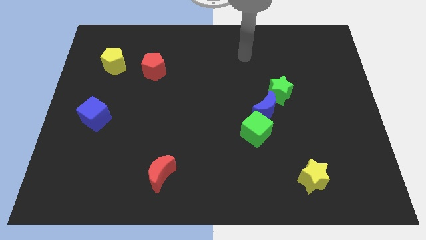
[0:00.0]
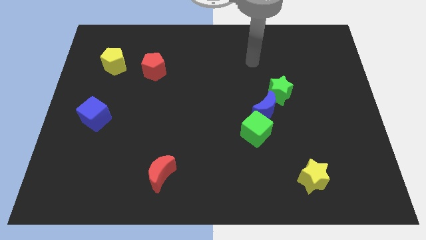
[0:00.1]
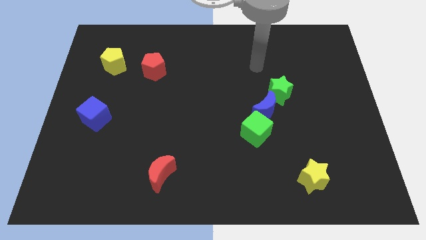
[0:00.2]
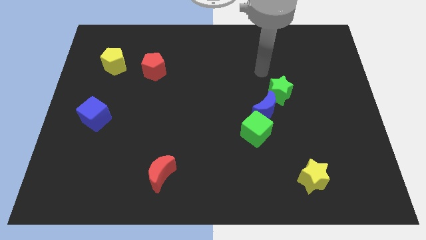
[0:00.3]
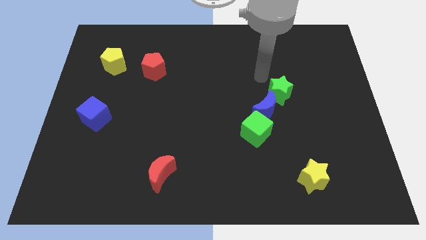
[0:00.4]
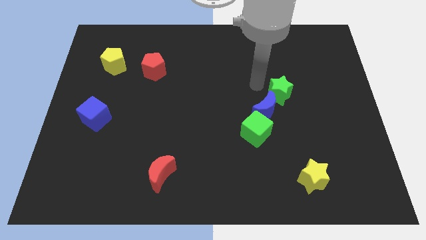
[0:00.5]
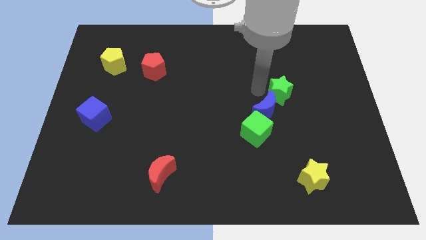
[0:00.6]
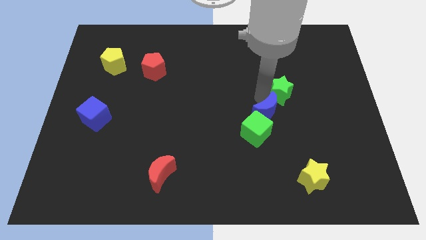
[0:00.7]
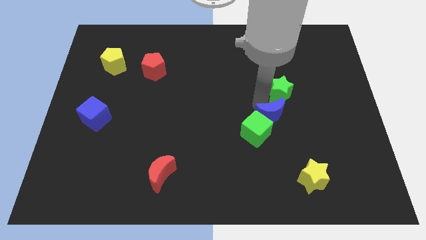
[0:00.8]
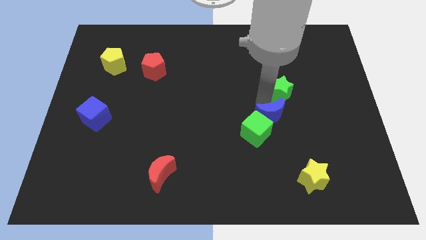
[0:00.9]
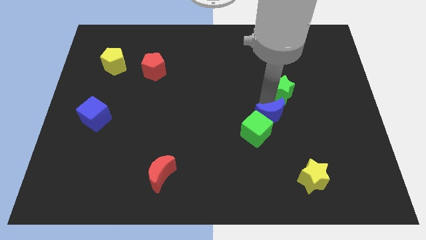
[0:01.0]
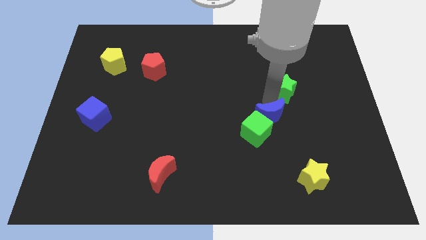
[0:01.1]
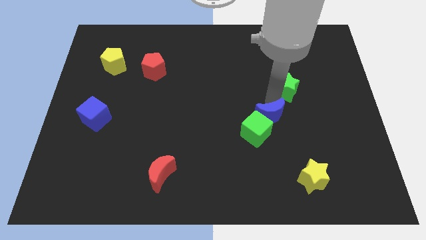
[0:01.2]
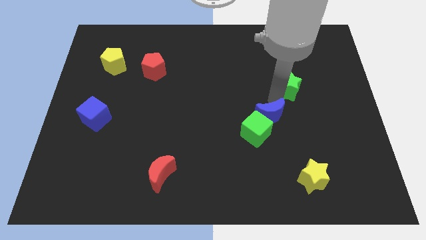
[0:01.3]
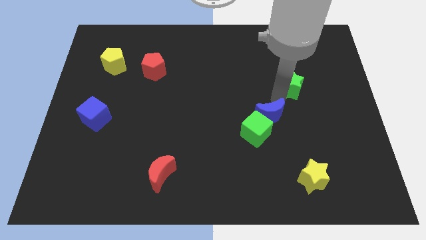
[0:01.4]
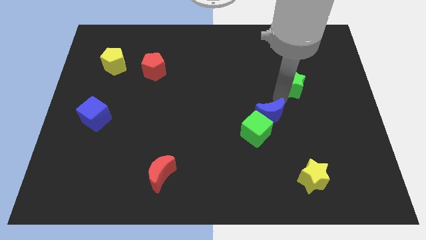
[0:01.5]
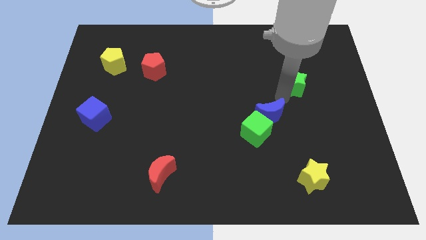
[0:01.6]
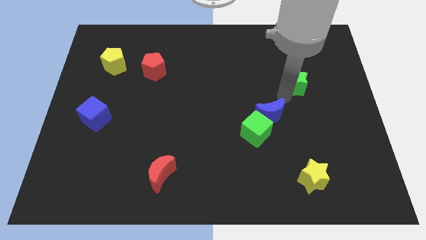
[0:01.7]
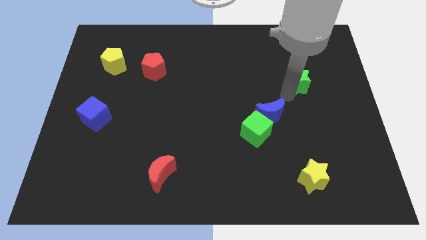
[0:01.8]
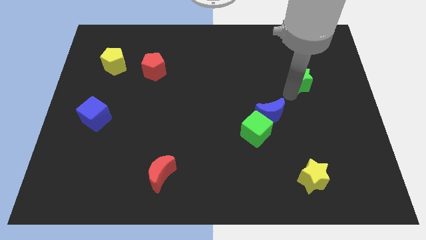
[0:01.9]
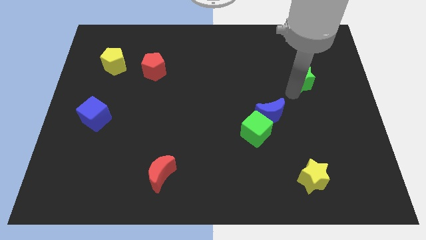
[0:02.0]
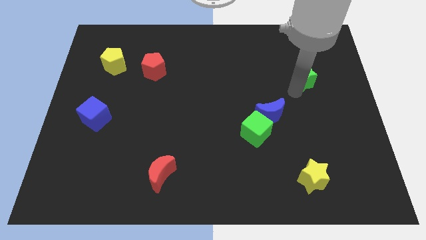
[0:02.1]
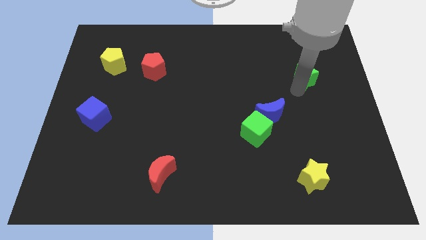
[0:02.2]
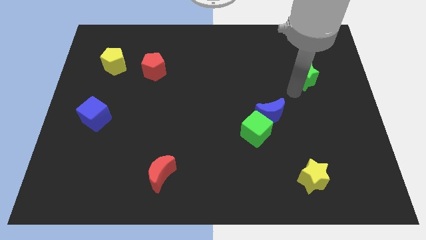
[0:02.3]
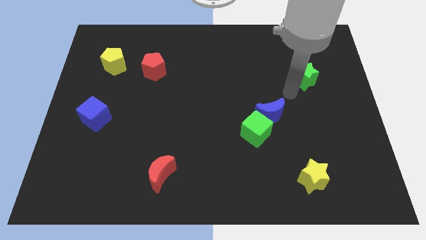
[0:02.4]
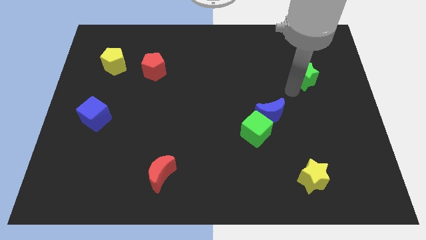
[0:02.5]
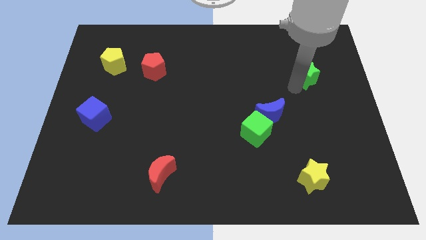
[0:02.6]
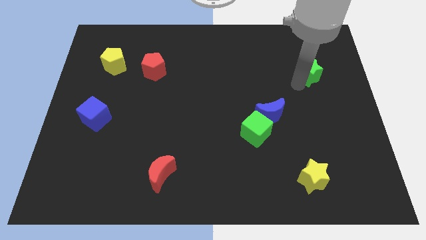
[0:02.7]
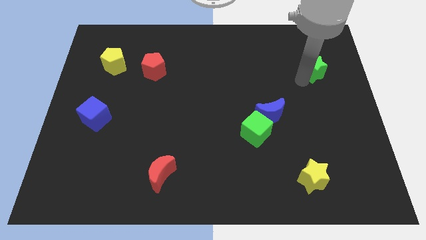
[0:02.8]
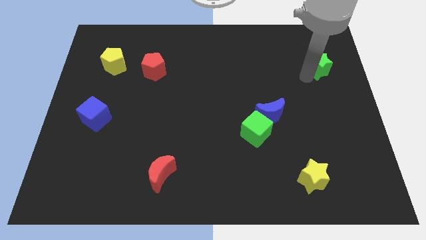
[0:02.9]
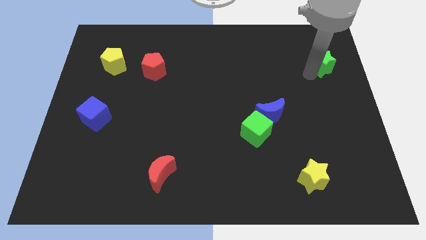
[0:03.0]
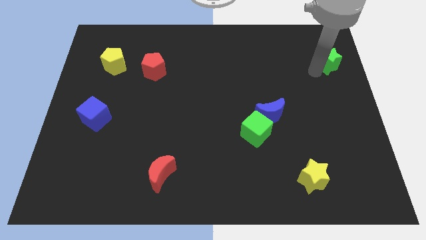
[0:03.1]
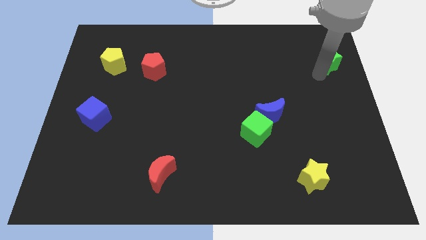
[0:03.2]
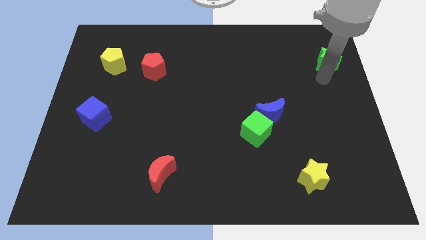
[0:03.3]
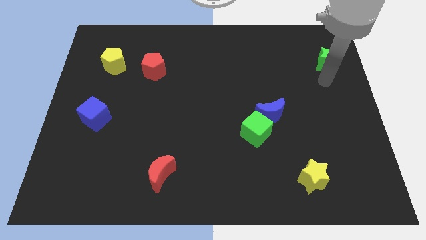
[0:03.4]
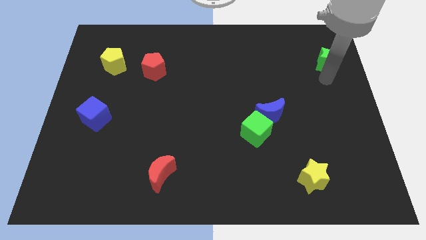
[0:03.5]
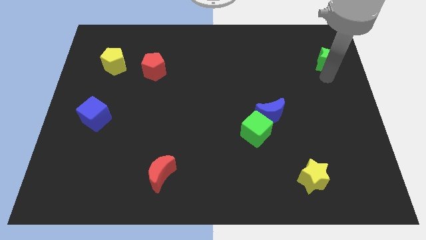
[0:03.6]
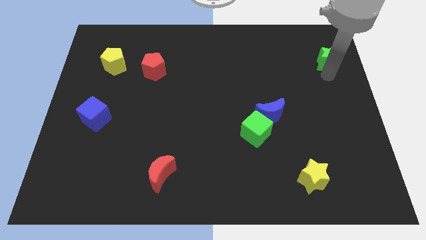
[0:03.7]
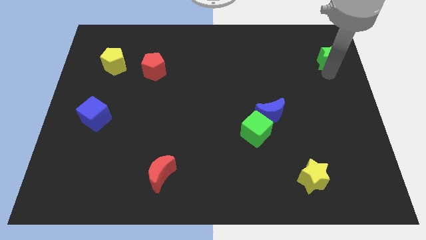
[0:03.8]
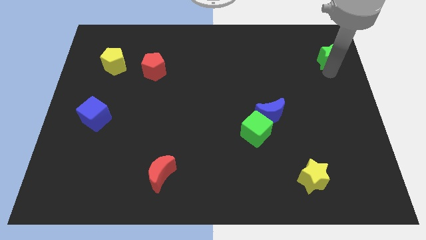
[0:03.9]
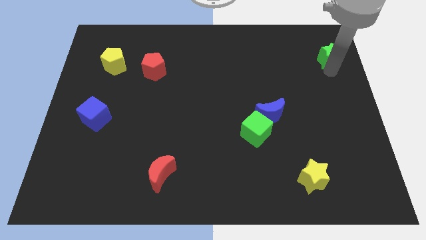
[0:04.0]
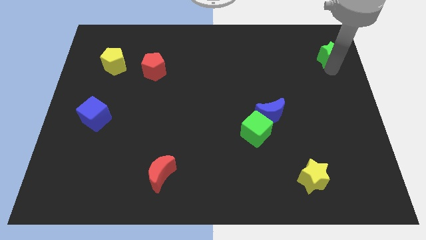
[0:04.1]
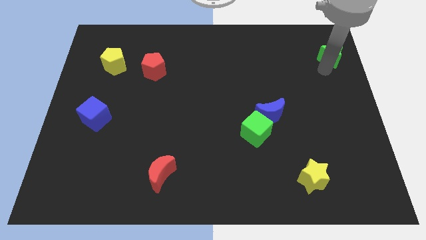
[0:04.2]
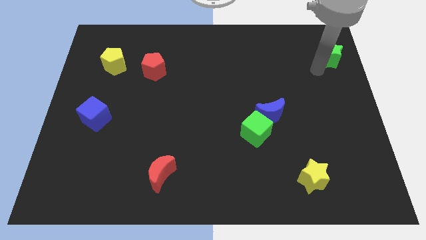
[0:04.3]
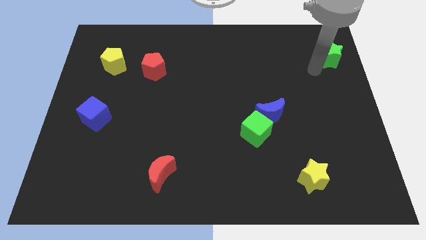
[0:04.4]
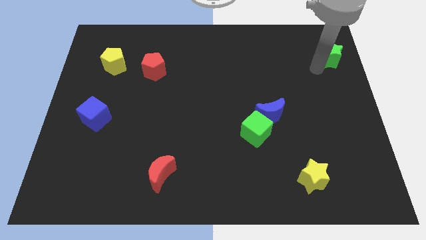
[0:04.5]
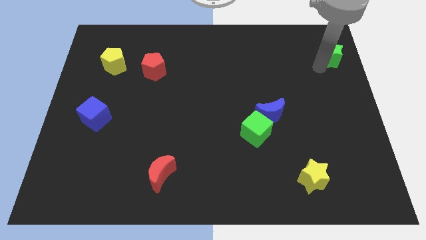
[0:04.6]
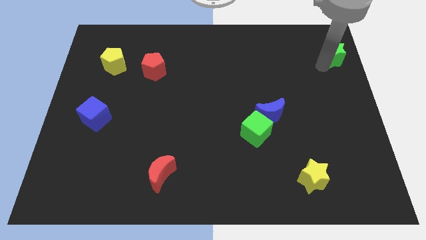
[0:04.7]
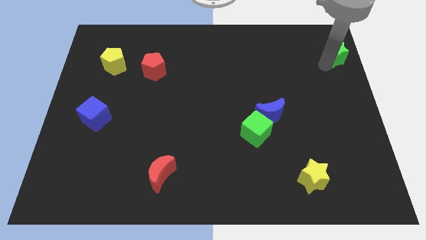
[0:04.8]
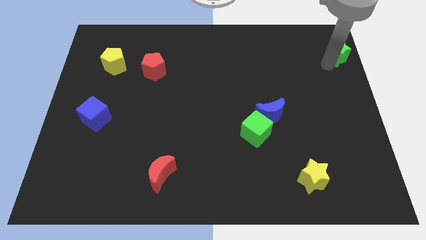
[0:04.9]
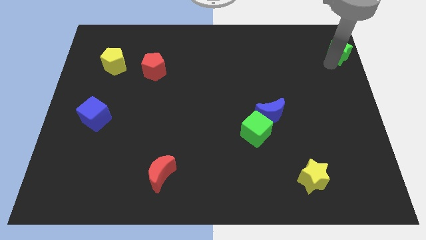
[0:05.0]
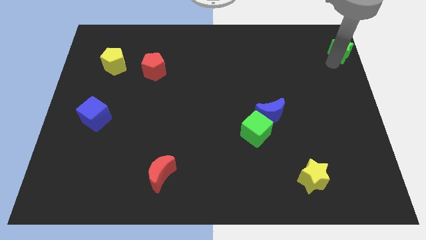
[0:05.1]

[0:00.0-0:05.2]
push the green star to the upper right corner

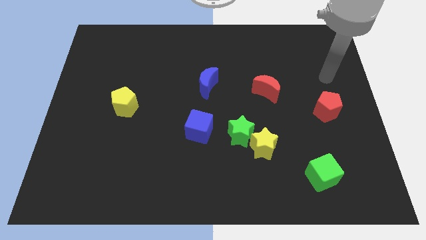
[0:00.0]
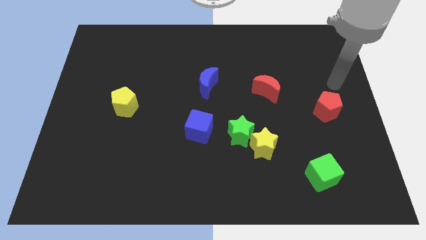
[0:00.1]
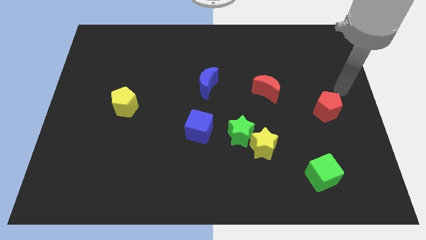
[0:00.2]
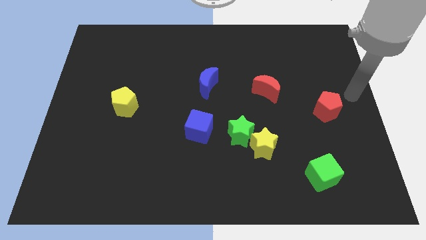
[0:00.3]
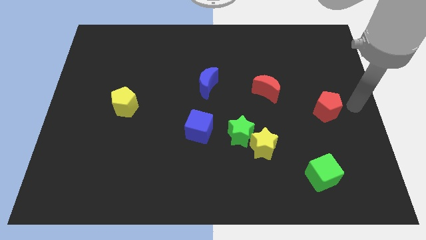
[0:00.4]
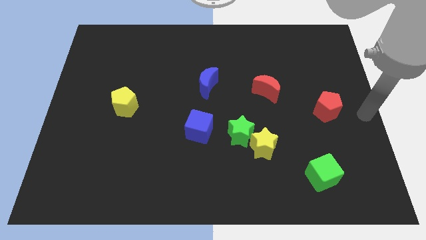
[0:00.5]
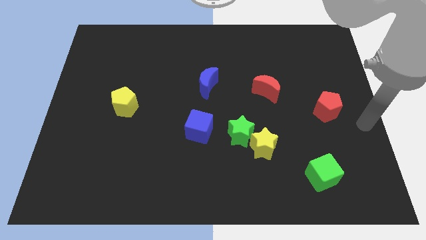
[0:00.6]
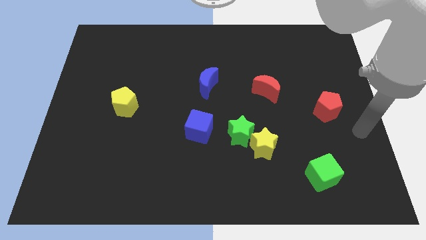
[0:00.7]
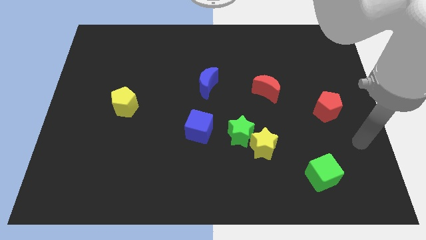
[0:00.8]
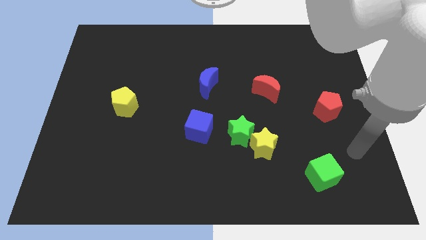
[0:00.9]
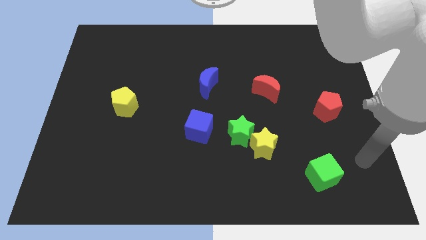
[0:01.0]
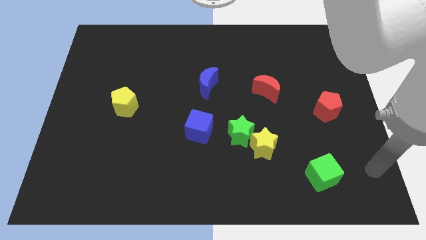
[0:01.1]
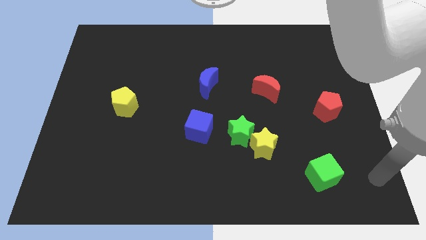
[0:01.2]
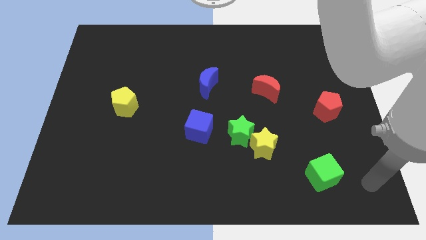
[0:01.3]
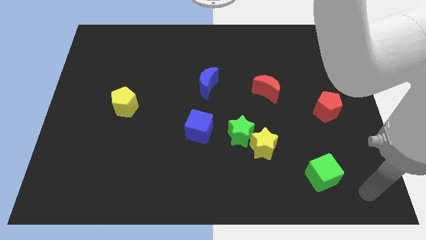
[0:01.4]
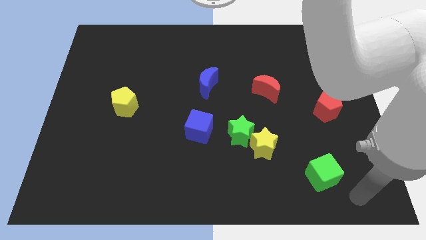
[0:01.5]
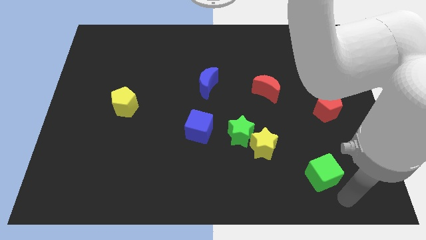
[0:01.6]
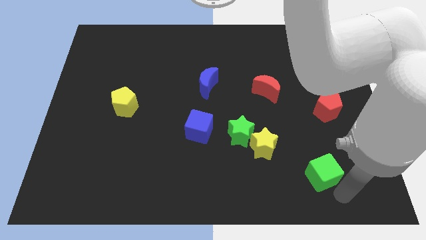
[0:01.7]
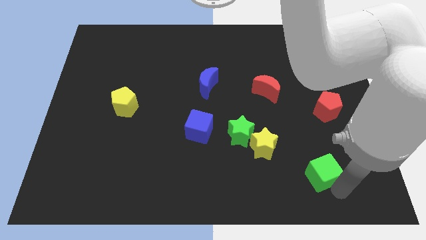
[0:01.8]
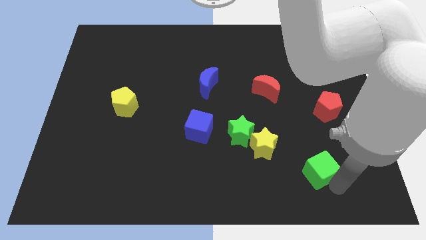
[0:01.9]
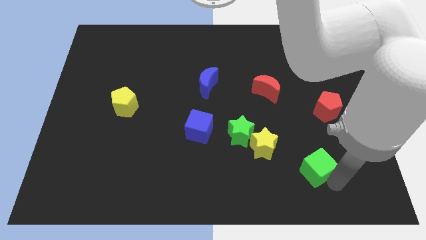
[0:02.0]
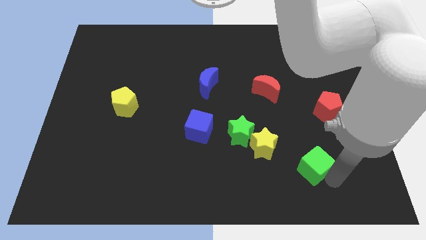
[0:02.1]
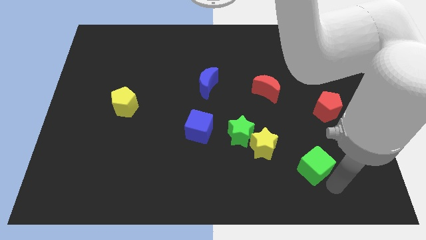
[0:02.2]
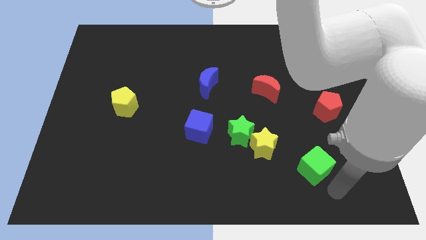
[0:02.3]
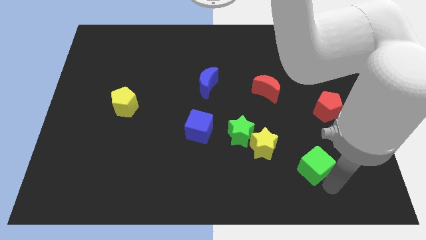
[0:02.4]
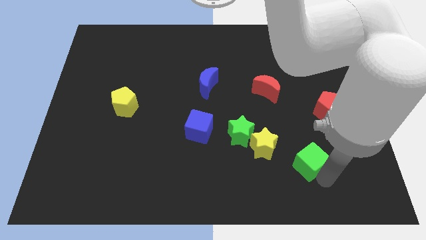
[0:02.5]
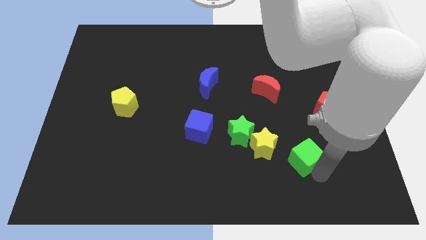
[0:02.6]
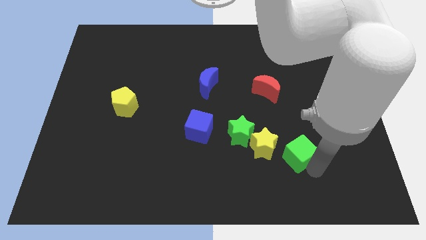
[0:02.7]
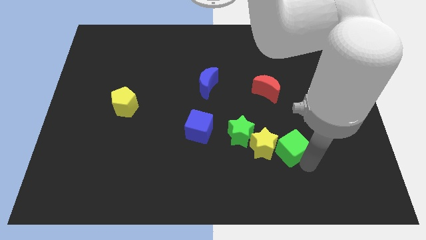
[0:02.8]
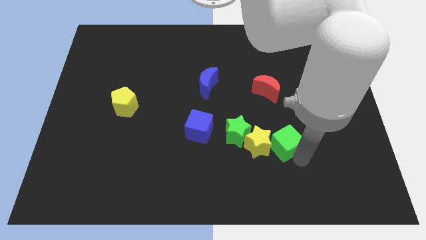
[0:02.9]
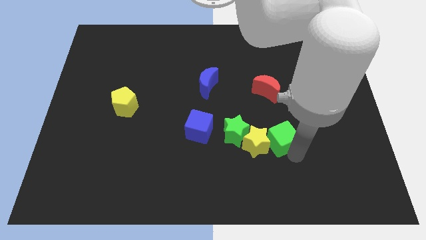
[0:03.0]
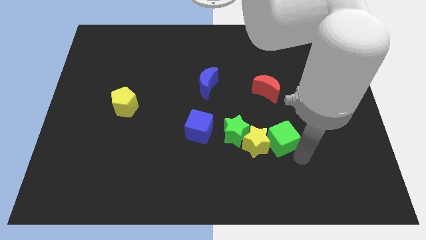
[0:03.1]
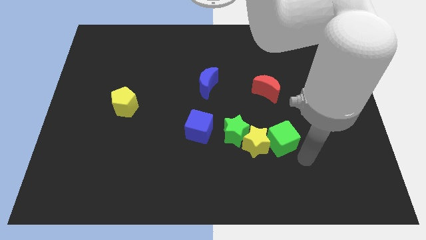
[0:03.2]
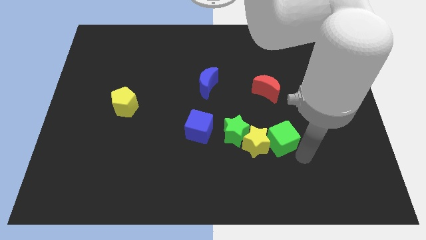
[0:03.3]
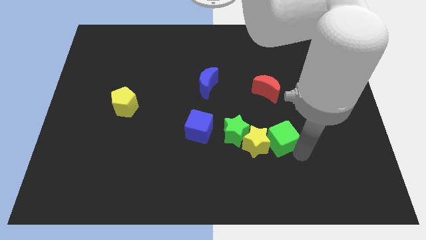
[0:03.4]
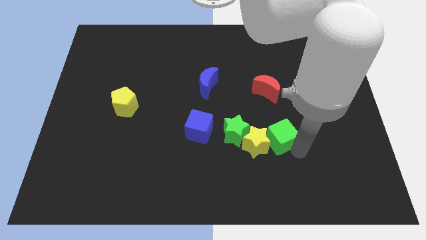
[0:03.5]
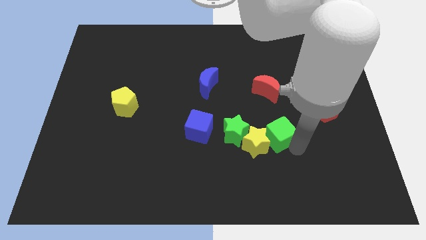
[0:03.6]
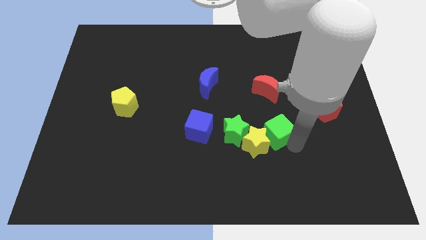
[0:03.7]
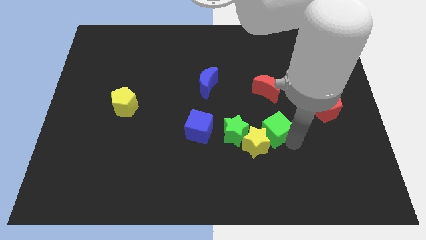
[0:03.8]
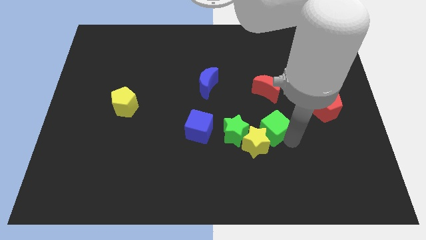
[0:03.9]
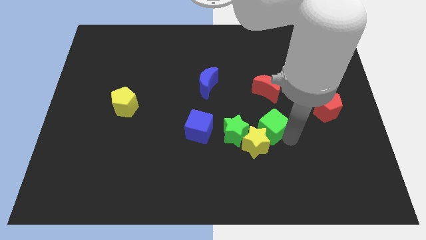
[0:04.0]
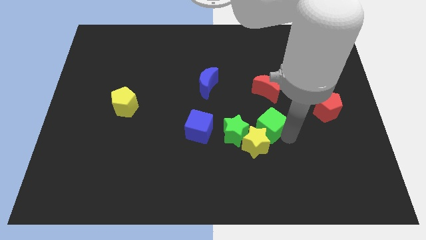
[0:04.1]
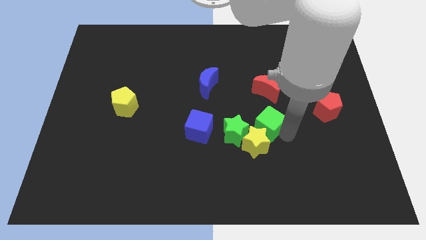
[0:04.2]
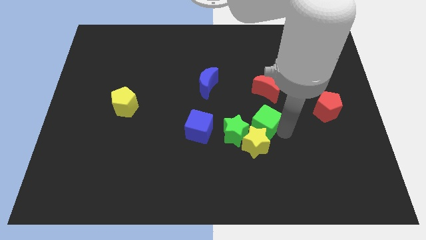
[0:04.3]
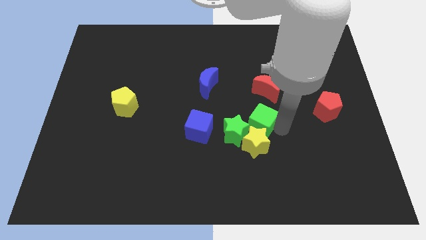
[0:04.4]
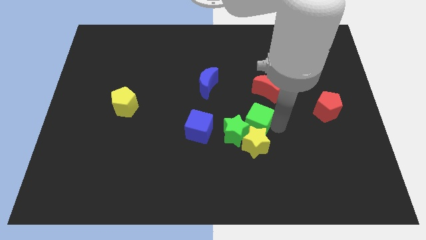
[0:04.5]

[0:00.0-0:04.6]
move the green cube to the middle
